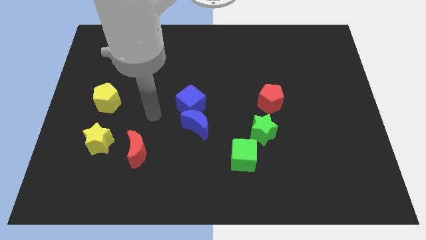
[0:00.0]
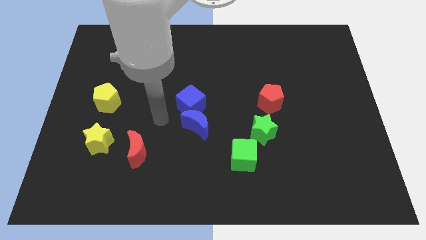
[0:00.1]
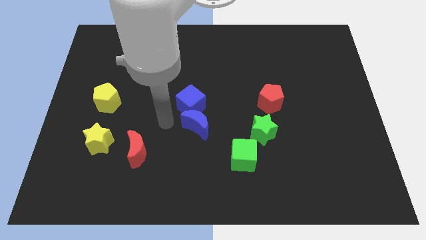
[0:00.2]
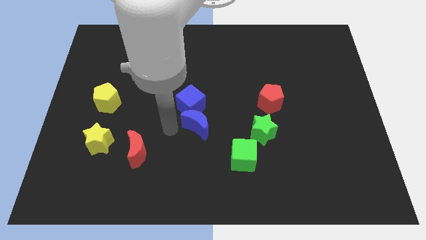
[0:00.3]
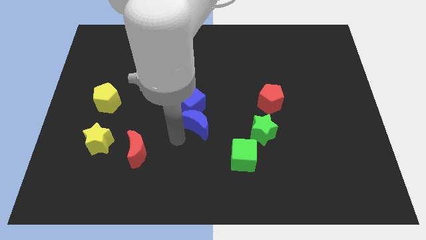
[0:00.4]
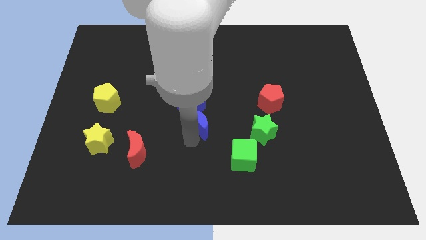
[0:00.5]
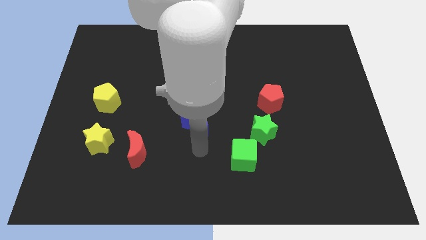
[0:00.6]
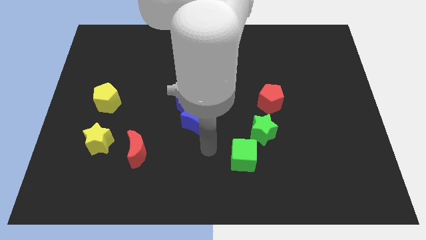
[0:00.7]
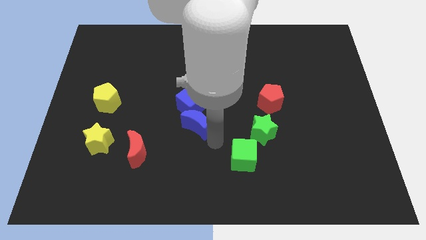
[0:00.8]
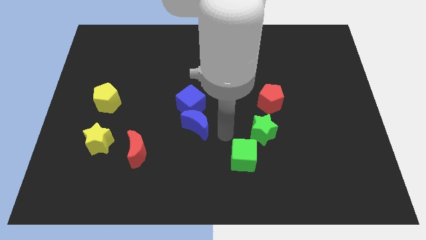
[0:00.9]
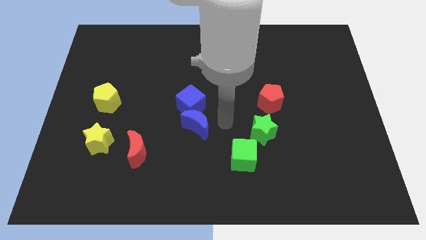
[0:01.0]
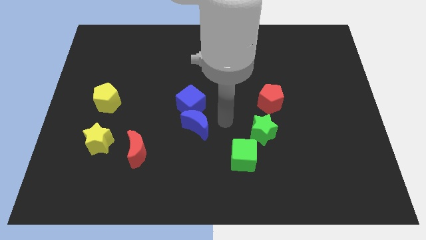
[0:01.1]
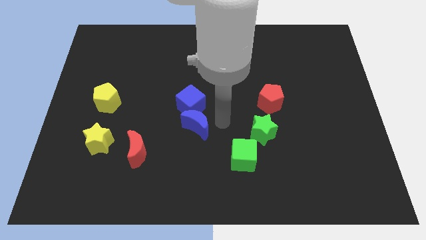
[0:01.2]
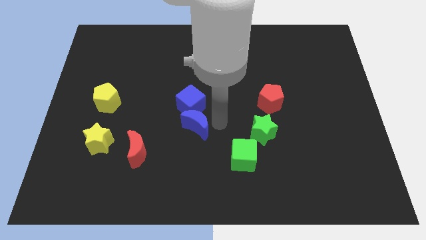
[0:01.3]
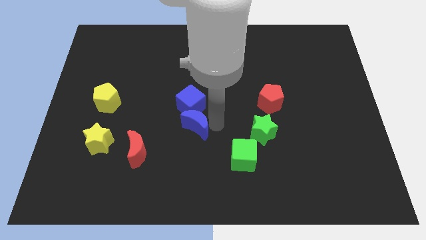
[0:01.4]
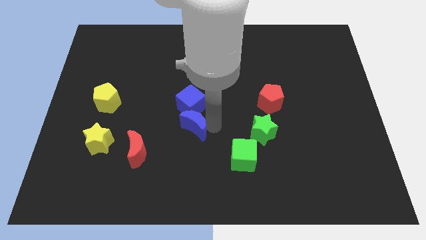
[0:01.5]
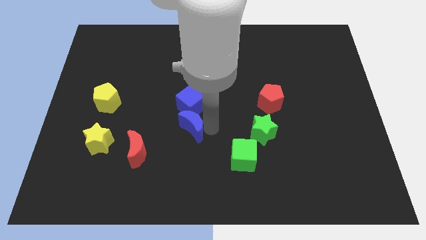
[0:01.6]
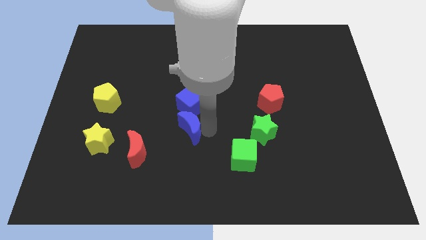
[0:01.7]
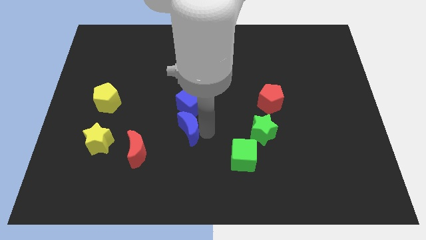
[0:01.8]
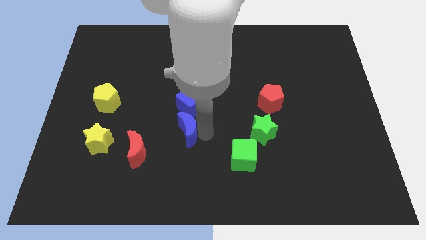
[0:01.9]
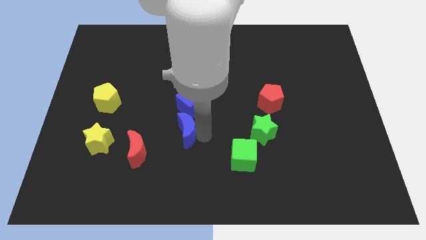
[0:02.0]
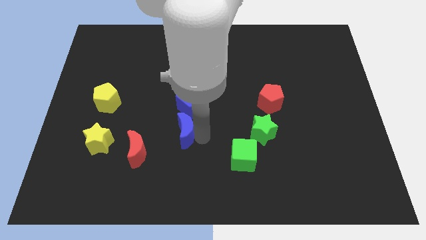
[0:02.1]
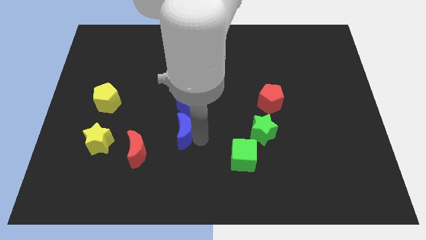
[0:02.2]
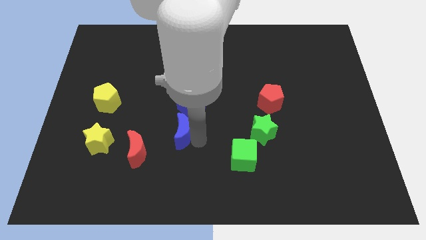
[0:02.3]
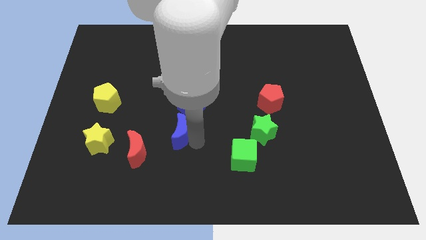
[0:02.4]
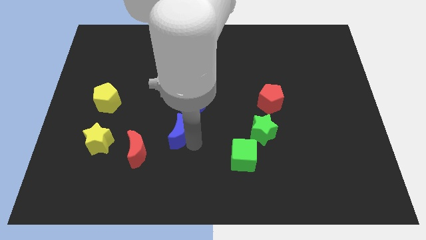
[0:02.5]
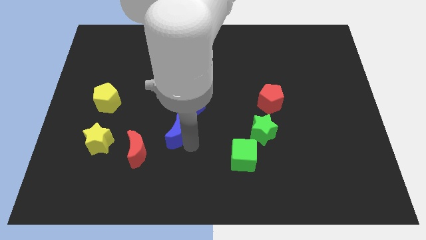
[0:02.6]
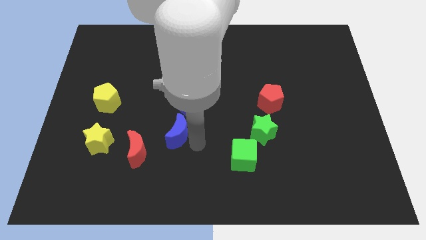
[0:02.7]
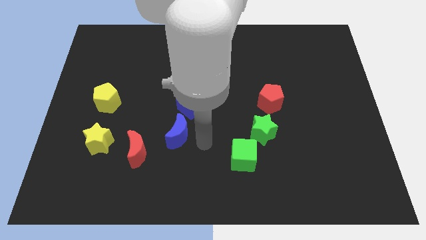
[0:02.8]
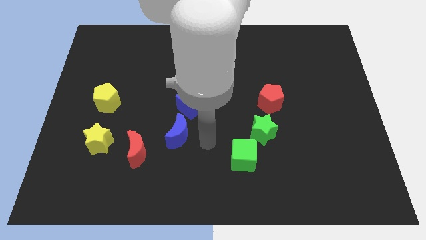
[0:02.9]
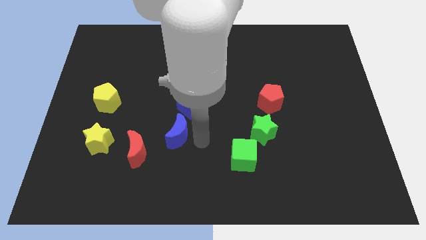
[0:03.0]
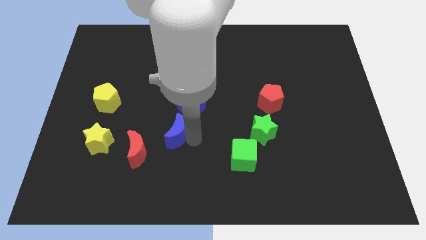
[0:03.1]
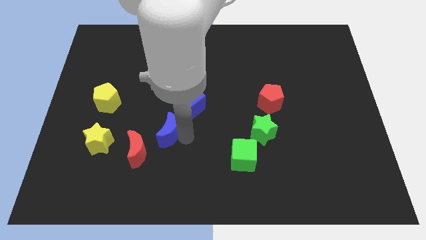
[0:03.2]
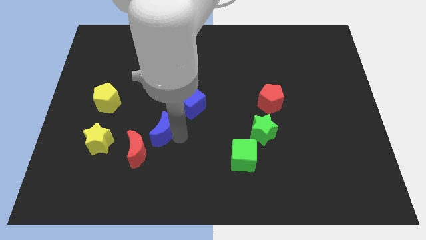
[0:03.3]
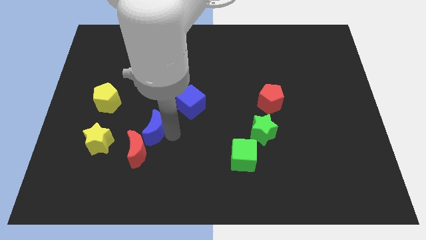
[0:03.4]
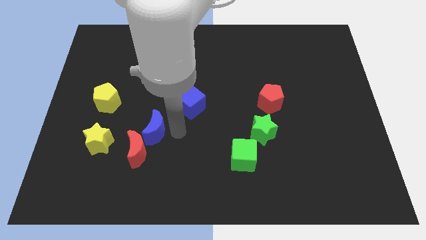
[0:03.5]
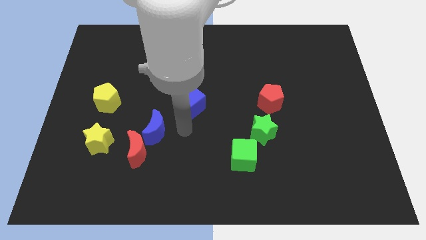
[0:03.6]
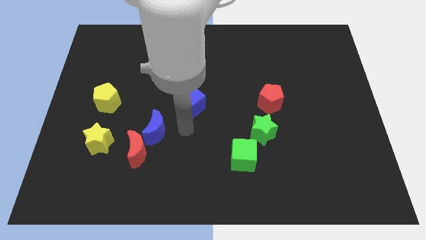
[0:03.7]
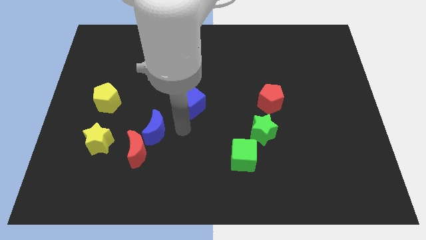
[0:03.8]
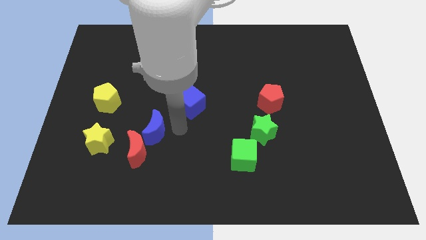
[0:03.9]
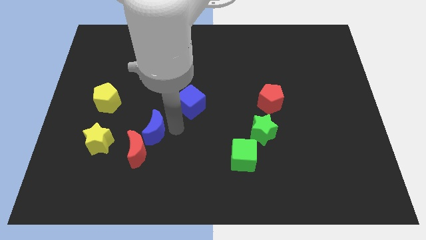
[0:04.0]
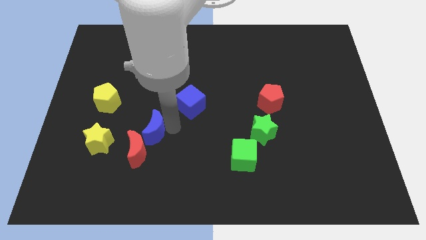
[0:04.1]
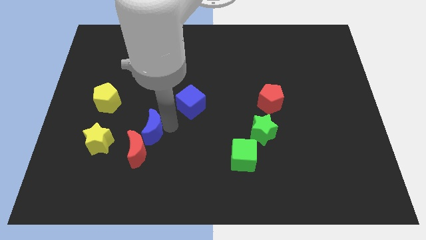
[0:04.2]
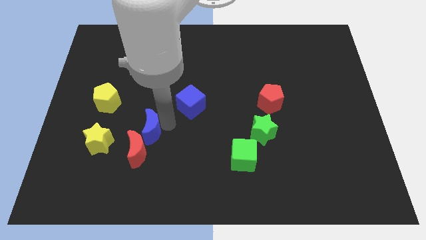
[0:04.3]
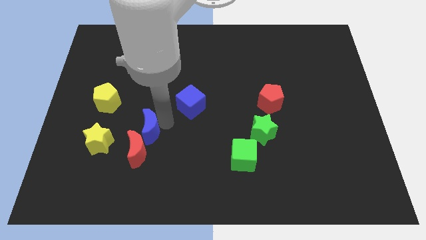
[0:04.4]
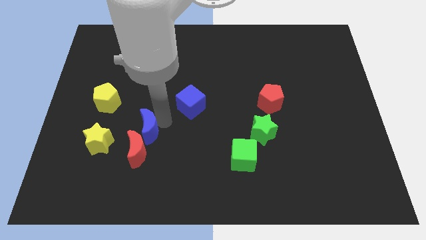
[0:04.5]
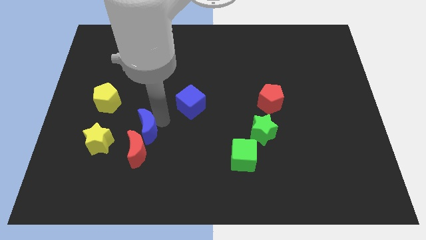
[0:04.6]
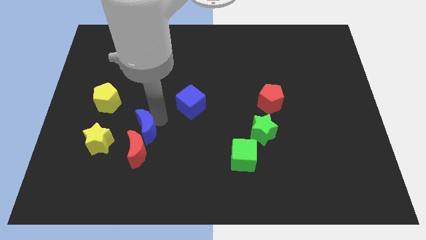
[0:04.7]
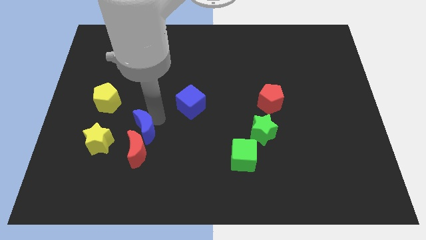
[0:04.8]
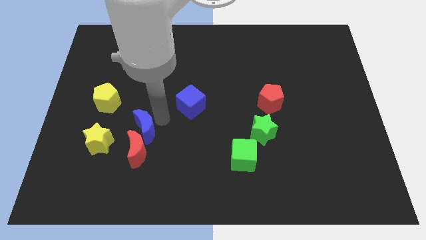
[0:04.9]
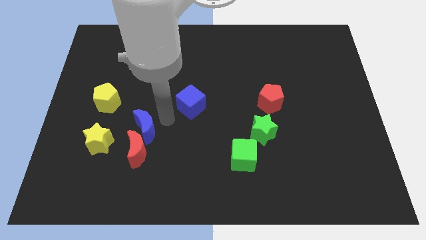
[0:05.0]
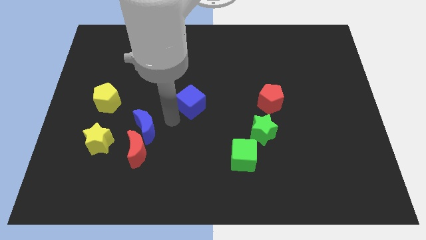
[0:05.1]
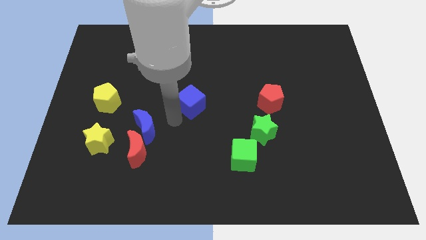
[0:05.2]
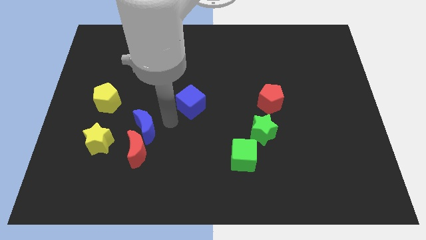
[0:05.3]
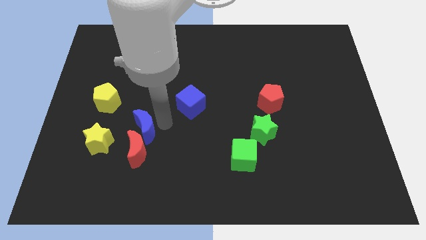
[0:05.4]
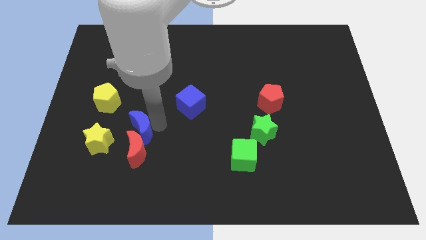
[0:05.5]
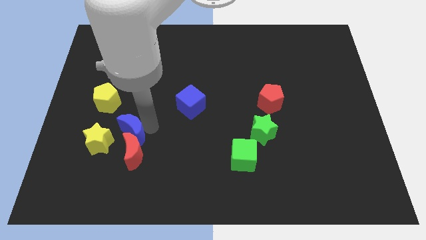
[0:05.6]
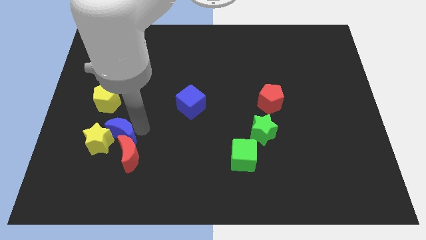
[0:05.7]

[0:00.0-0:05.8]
move the blue moon close to the yellow star

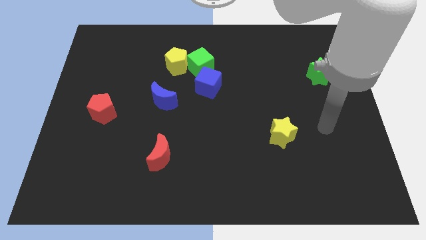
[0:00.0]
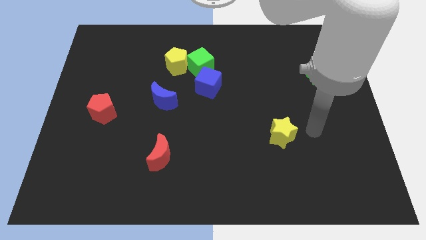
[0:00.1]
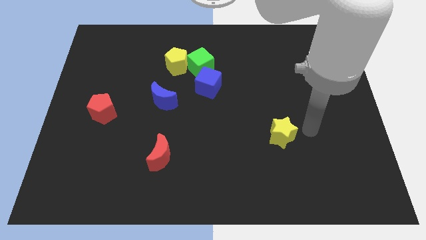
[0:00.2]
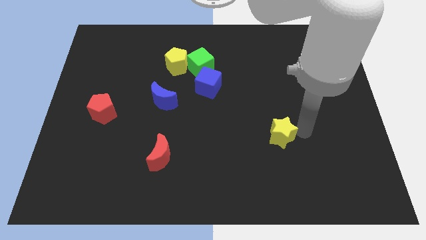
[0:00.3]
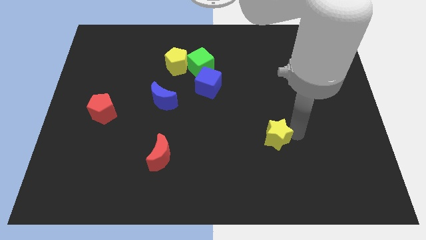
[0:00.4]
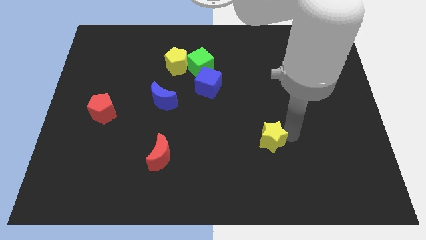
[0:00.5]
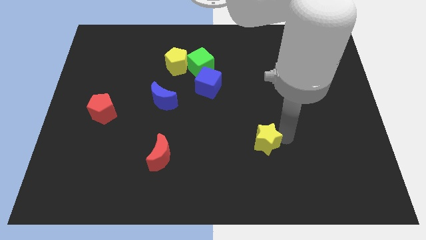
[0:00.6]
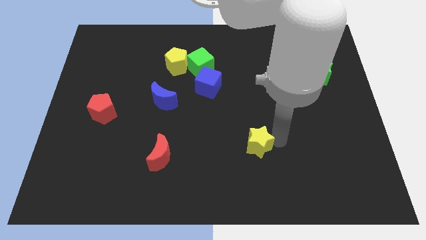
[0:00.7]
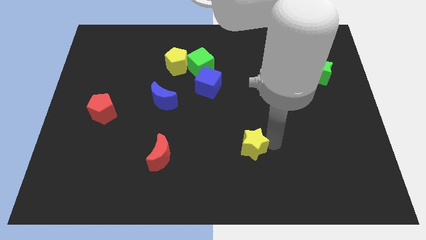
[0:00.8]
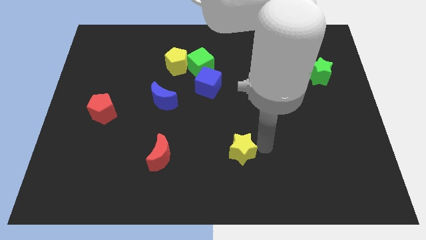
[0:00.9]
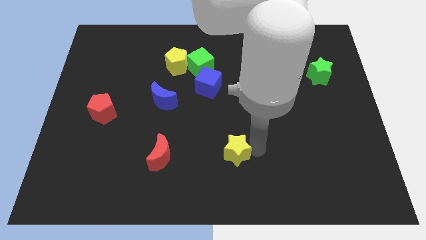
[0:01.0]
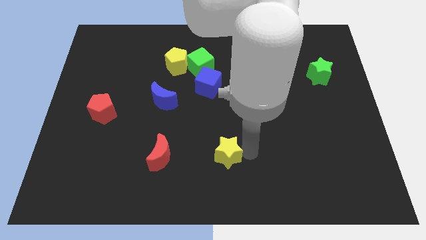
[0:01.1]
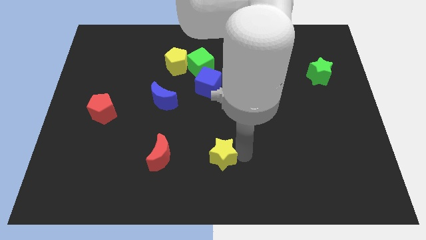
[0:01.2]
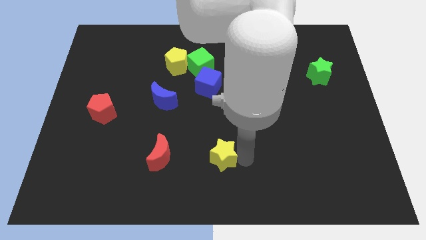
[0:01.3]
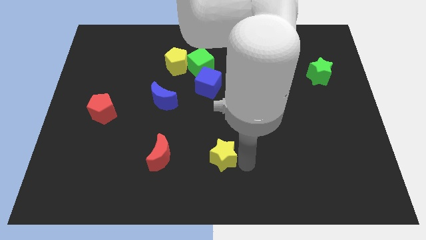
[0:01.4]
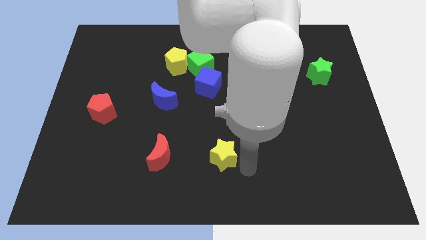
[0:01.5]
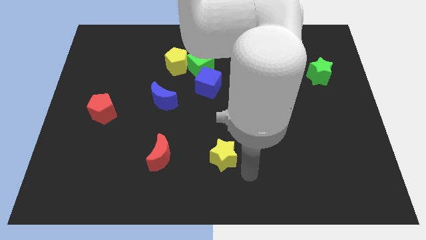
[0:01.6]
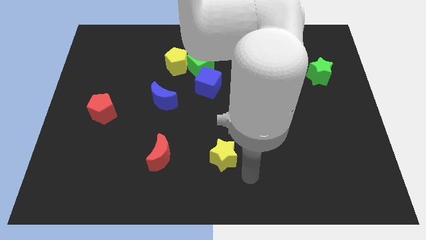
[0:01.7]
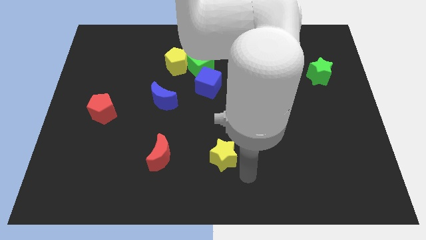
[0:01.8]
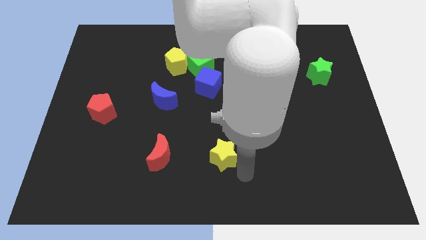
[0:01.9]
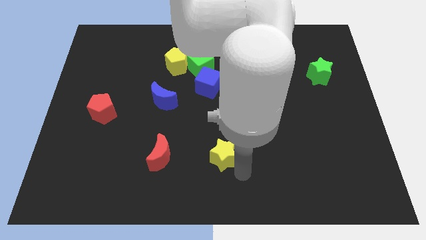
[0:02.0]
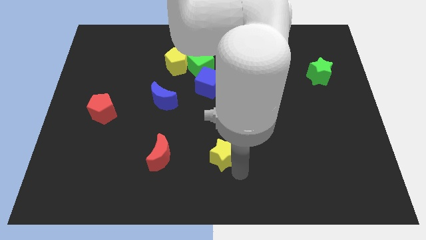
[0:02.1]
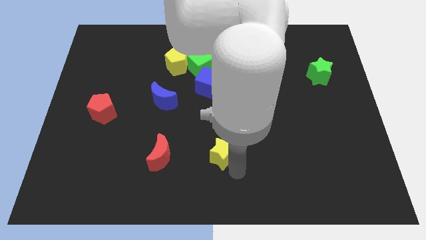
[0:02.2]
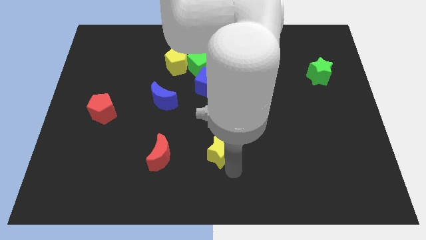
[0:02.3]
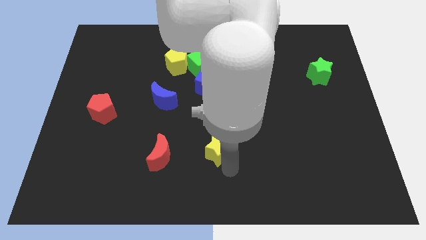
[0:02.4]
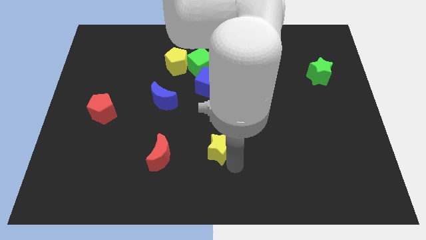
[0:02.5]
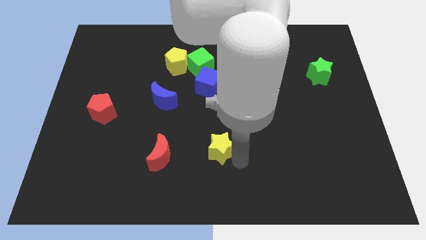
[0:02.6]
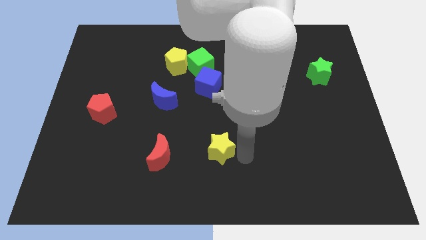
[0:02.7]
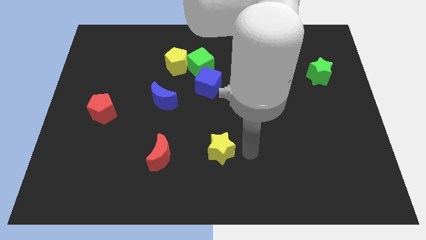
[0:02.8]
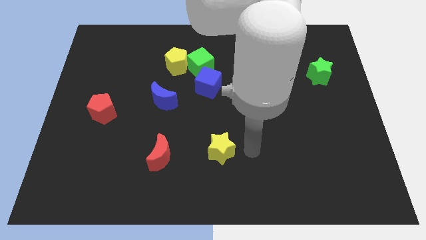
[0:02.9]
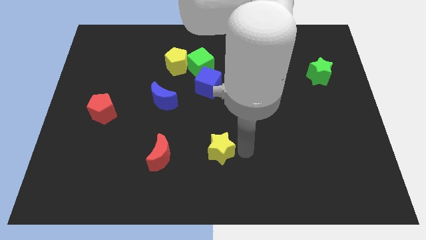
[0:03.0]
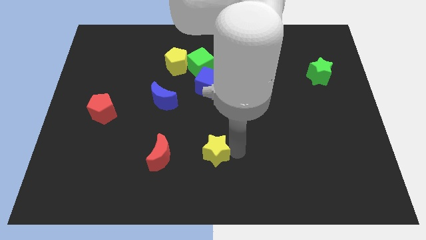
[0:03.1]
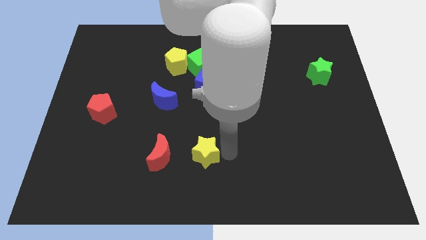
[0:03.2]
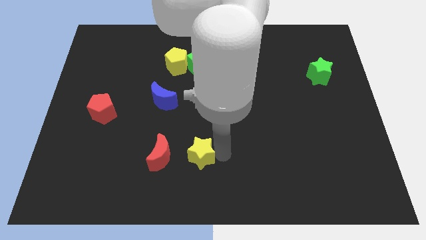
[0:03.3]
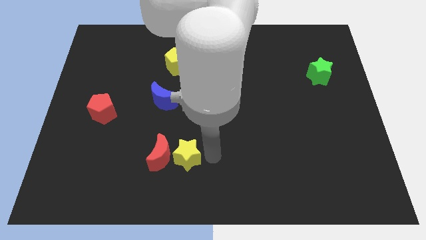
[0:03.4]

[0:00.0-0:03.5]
push the yellow star next to the red moon
